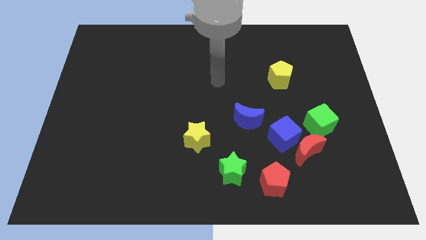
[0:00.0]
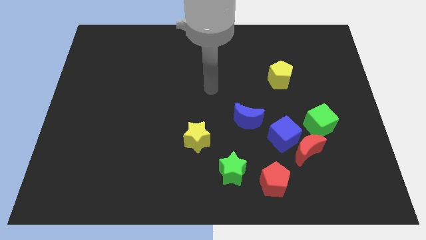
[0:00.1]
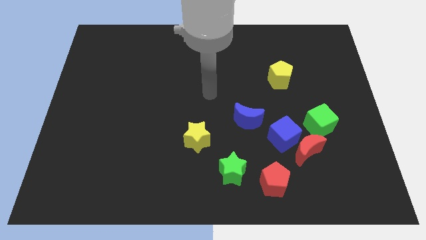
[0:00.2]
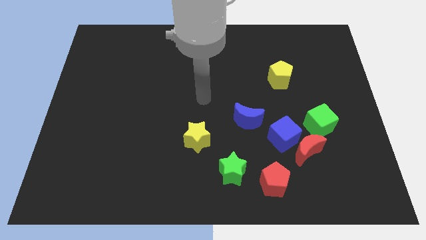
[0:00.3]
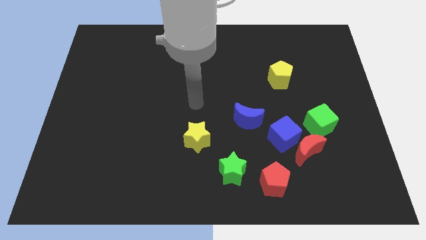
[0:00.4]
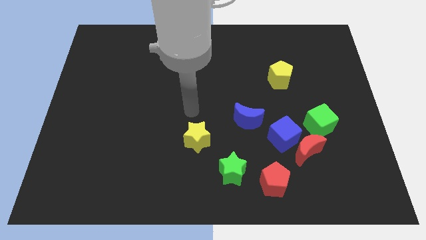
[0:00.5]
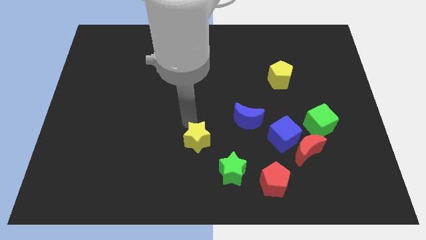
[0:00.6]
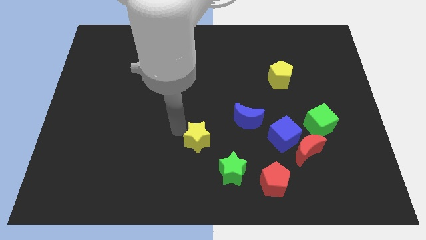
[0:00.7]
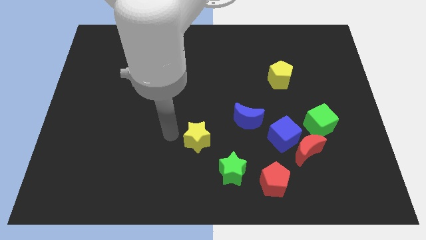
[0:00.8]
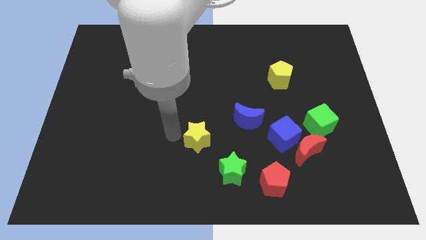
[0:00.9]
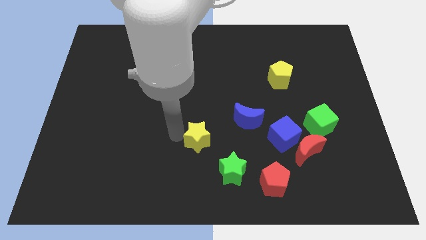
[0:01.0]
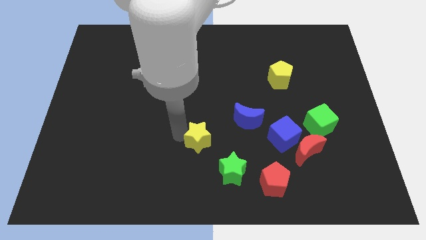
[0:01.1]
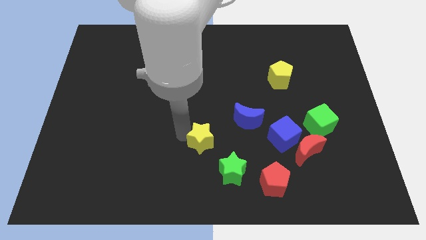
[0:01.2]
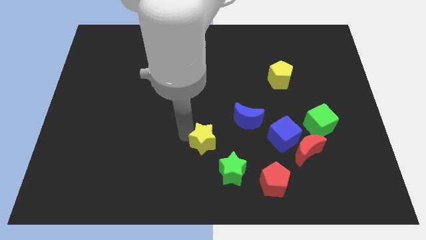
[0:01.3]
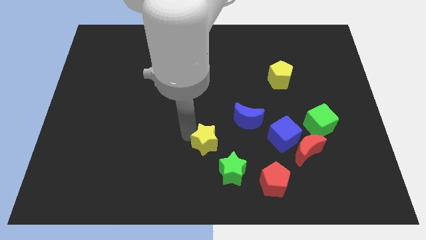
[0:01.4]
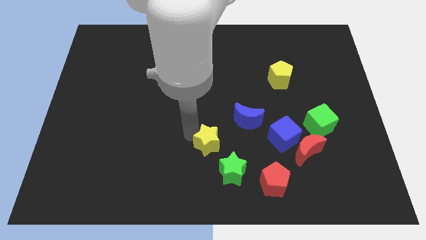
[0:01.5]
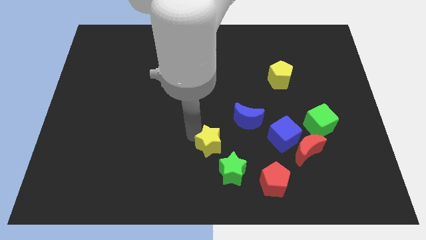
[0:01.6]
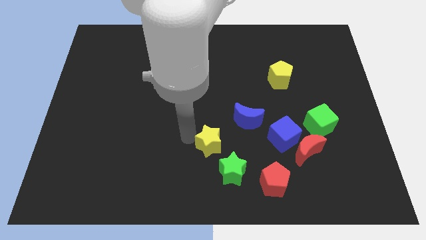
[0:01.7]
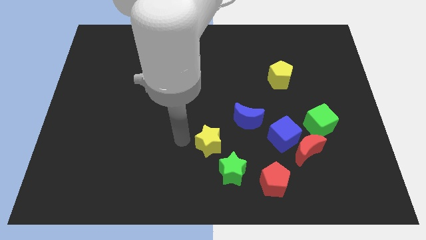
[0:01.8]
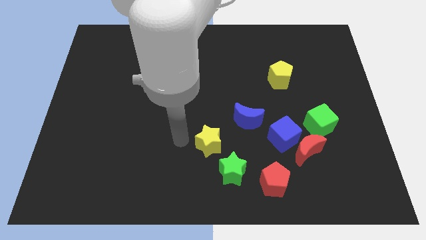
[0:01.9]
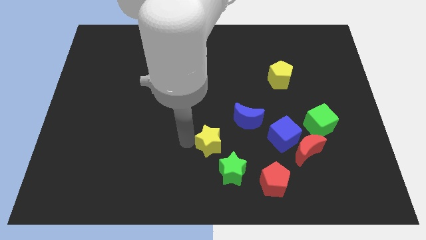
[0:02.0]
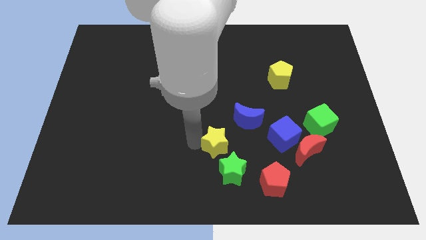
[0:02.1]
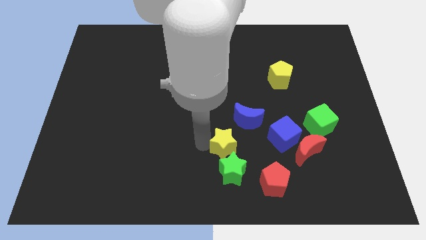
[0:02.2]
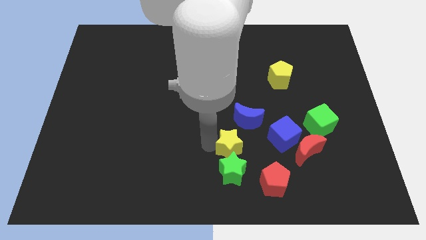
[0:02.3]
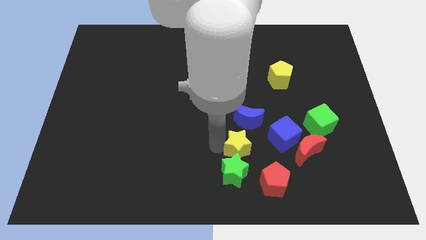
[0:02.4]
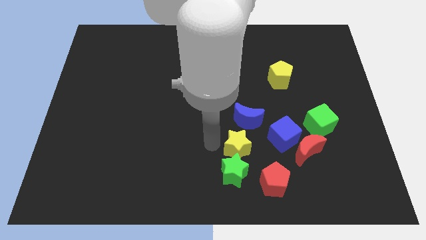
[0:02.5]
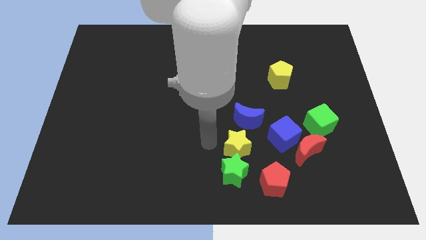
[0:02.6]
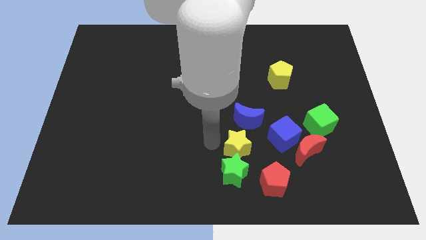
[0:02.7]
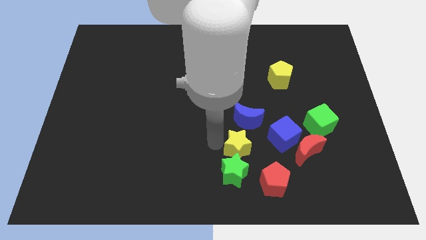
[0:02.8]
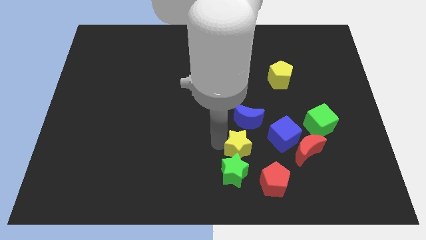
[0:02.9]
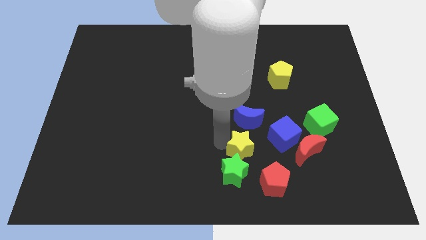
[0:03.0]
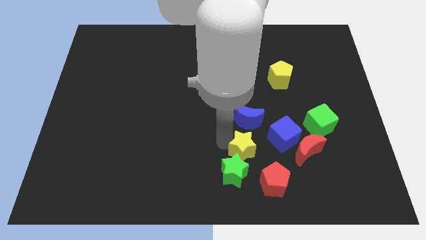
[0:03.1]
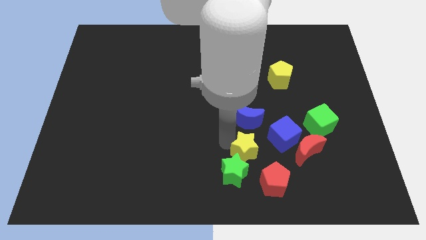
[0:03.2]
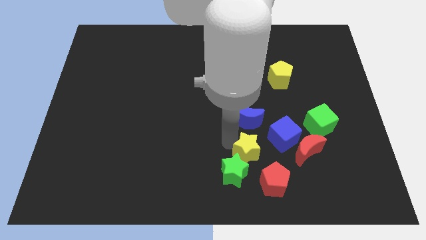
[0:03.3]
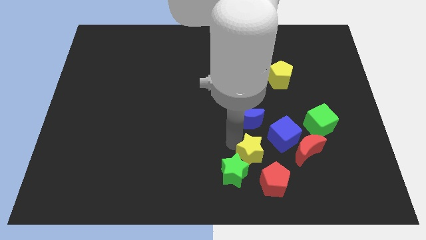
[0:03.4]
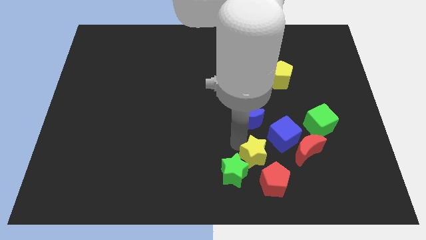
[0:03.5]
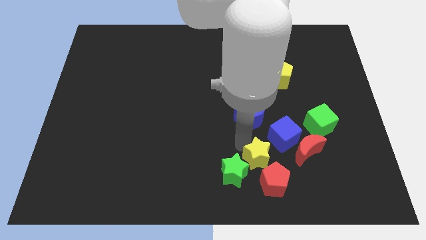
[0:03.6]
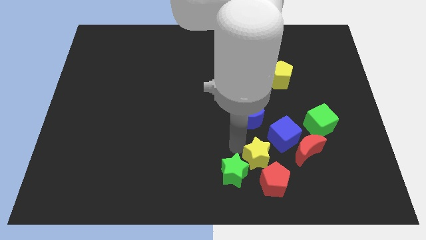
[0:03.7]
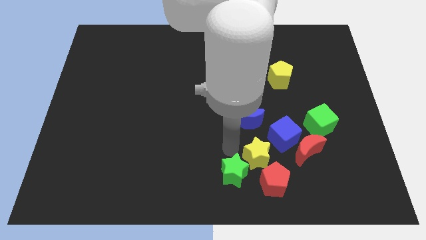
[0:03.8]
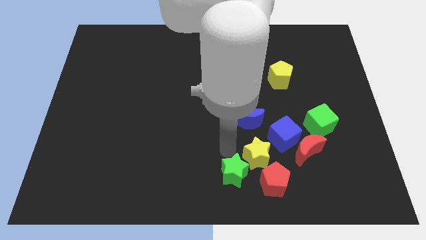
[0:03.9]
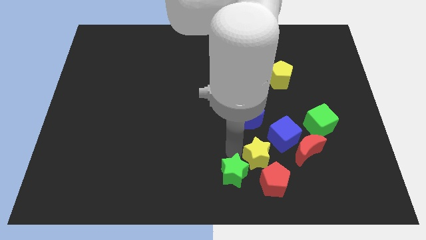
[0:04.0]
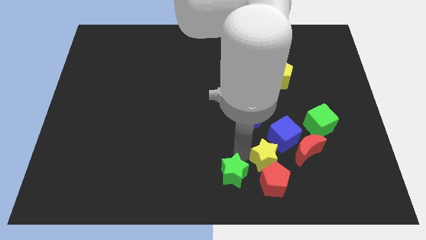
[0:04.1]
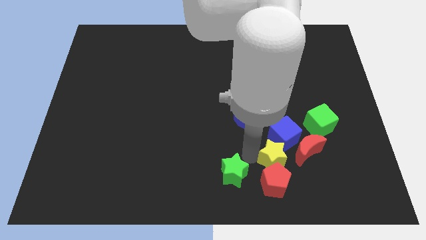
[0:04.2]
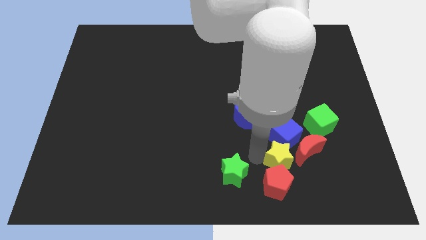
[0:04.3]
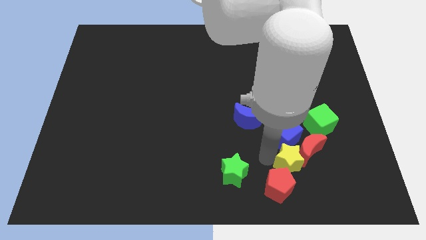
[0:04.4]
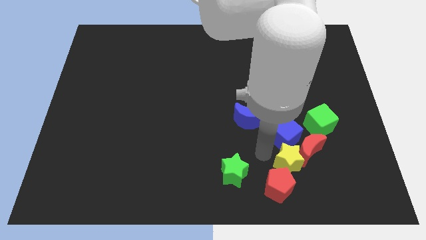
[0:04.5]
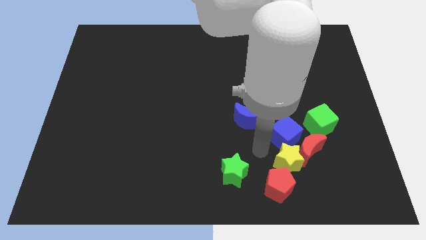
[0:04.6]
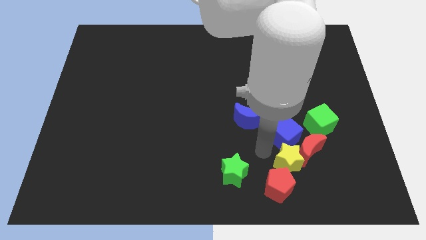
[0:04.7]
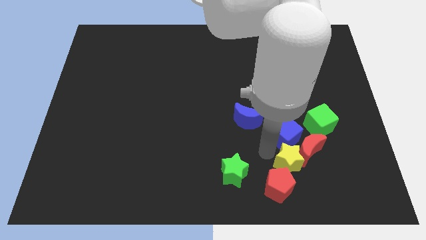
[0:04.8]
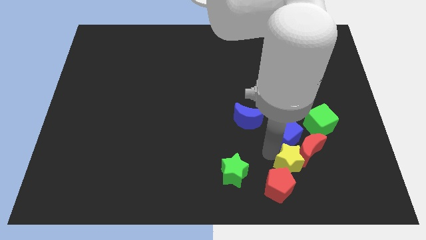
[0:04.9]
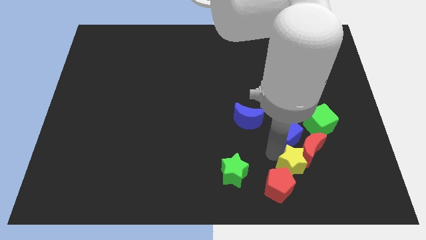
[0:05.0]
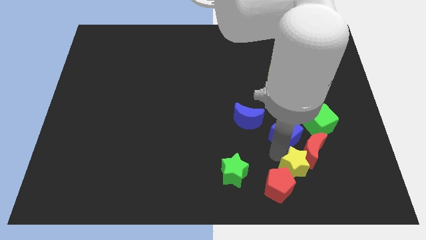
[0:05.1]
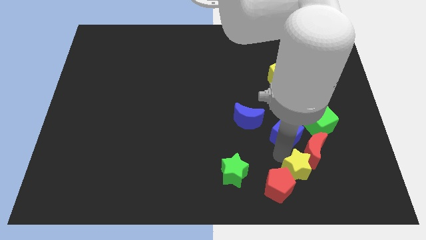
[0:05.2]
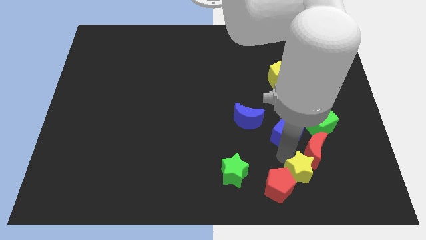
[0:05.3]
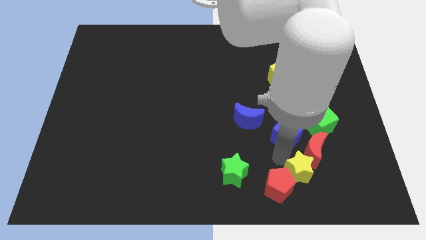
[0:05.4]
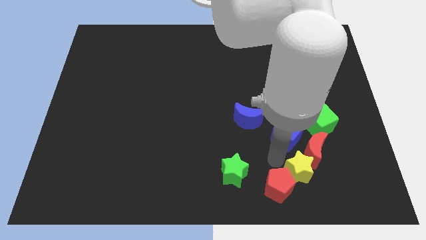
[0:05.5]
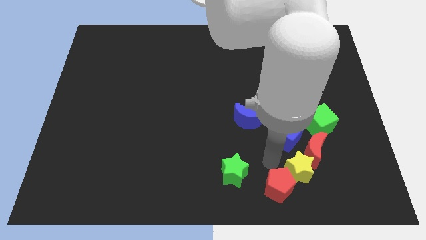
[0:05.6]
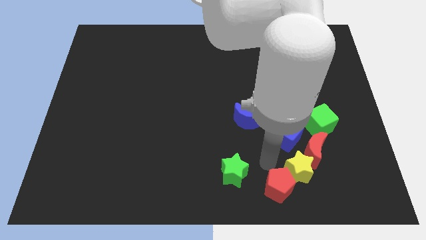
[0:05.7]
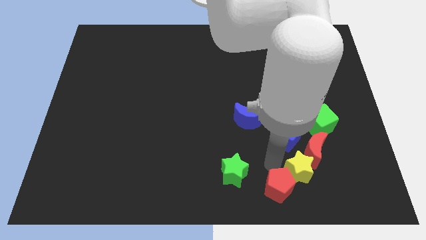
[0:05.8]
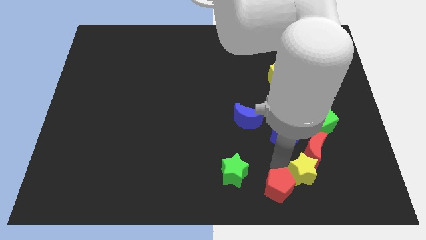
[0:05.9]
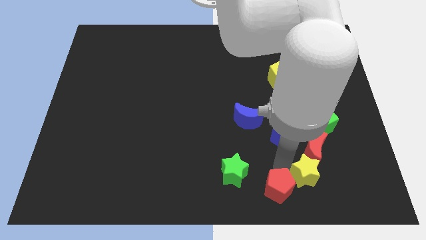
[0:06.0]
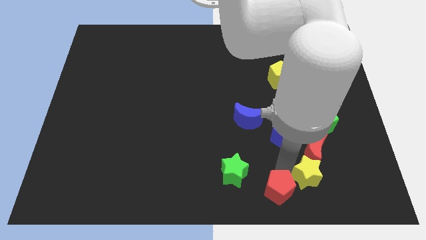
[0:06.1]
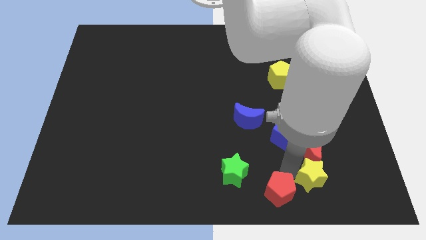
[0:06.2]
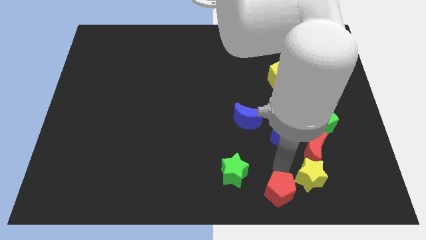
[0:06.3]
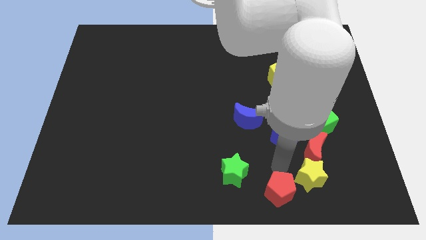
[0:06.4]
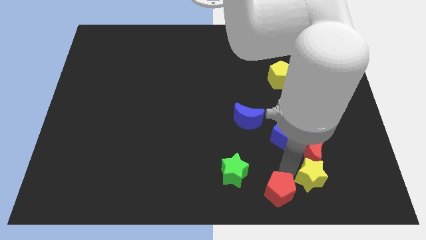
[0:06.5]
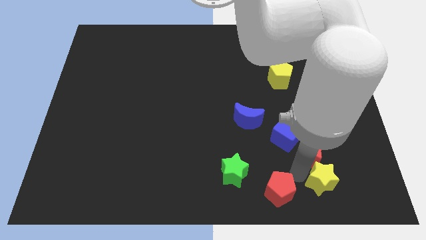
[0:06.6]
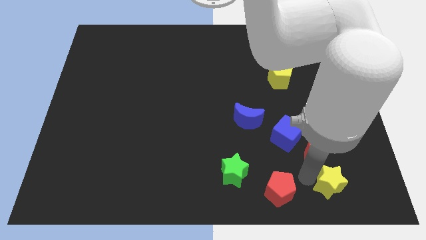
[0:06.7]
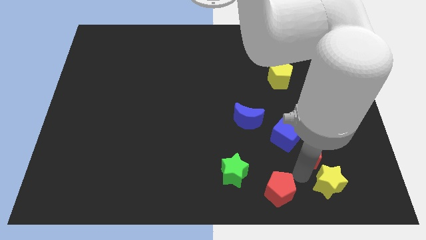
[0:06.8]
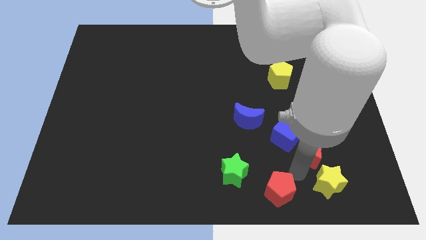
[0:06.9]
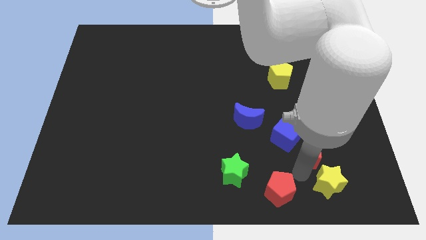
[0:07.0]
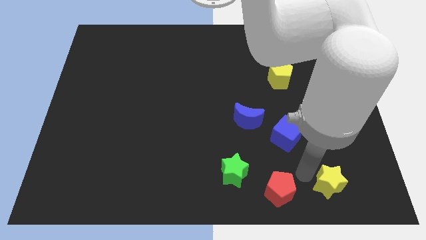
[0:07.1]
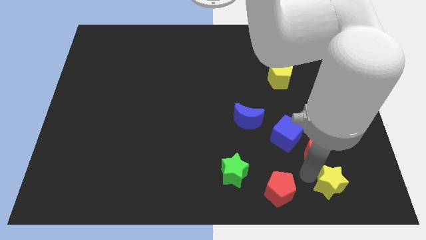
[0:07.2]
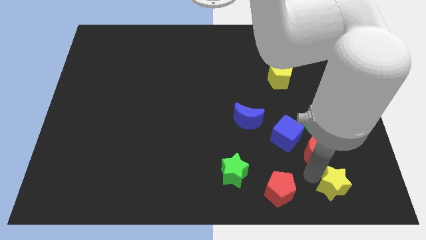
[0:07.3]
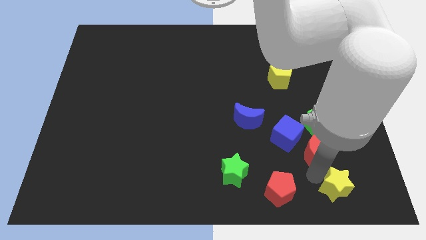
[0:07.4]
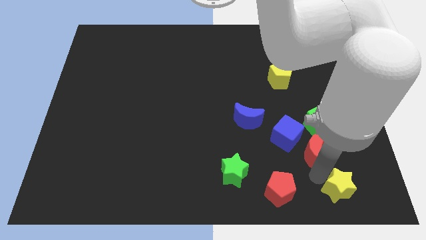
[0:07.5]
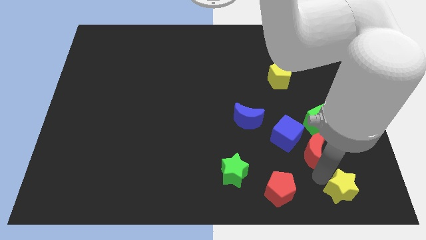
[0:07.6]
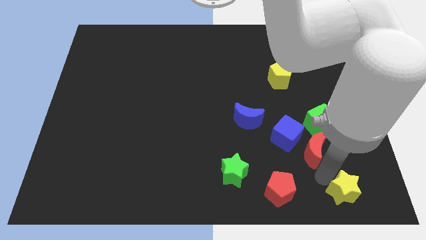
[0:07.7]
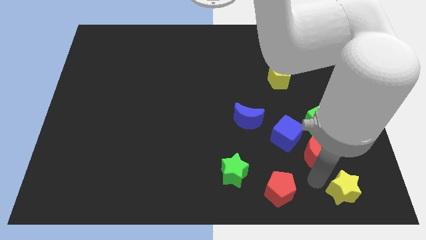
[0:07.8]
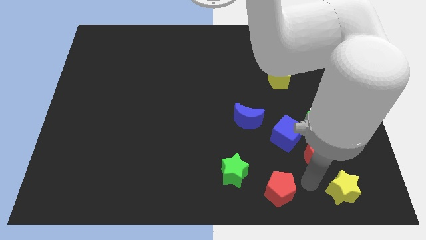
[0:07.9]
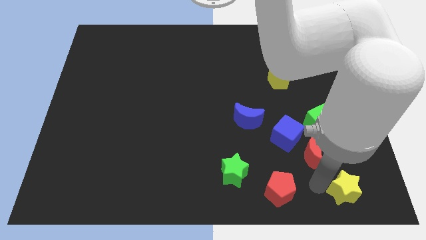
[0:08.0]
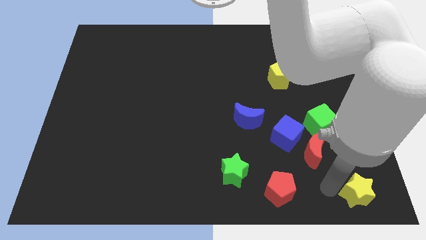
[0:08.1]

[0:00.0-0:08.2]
slide the yellow star to the bottom right corner
